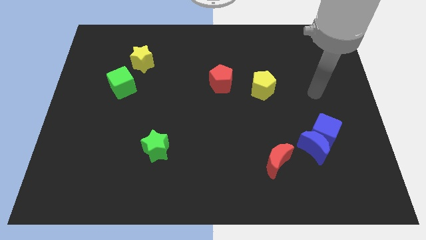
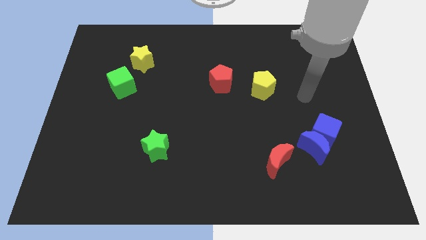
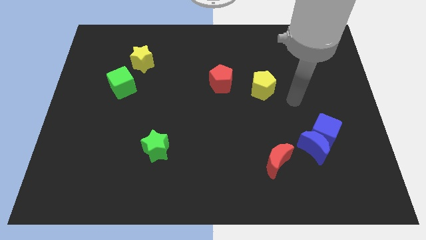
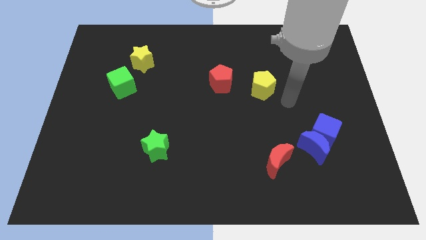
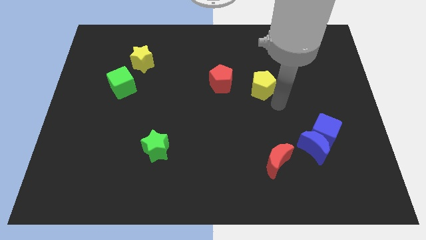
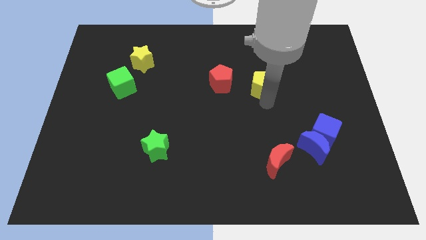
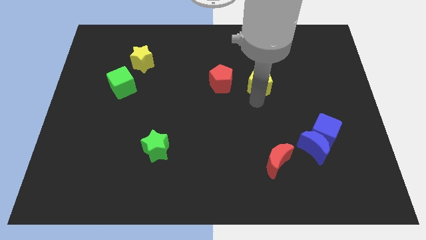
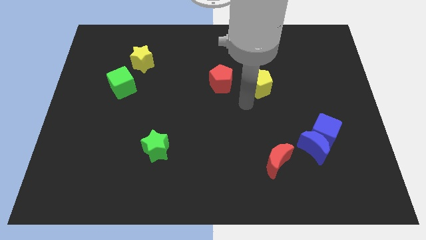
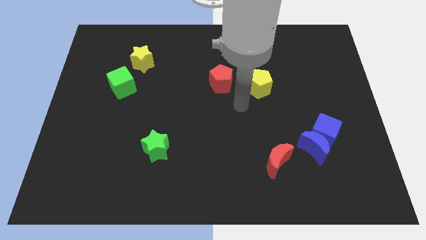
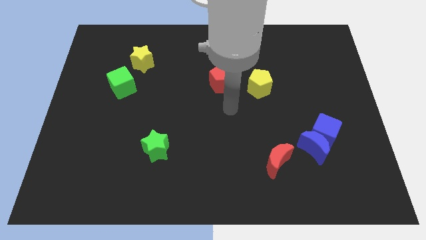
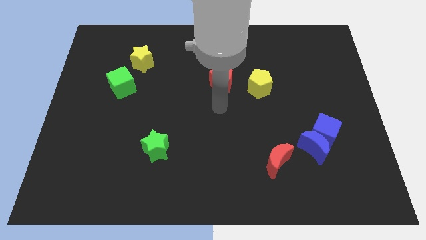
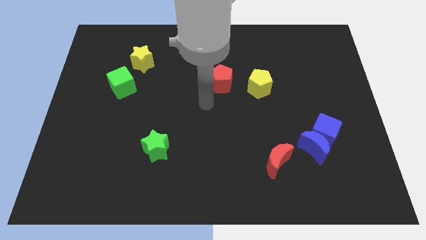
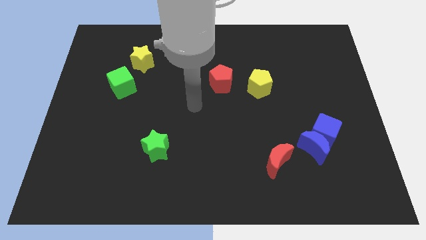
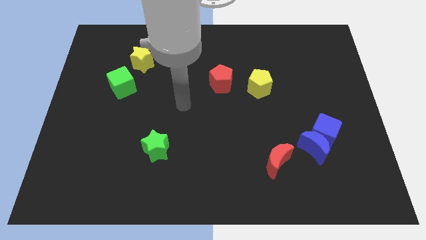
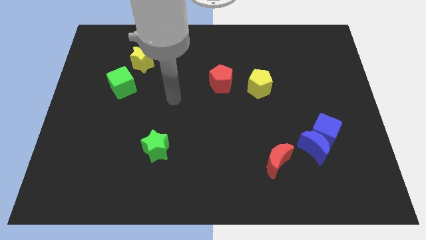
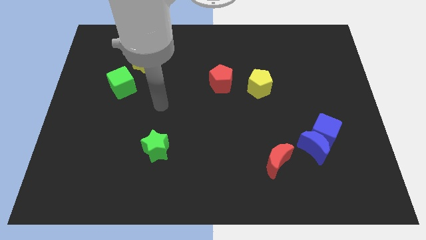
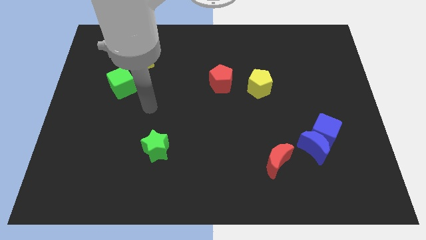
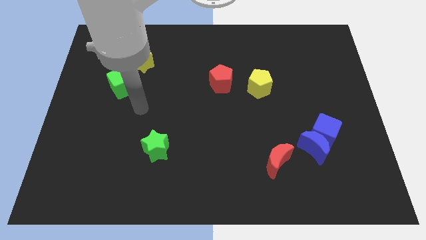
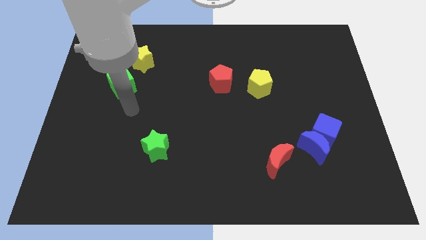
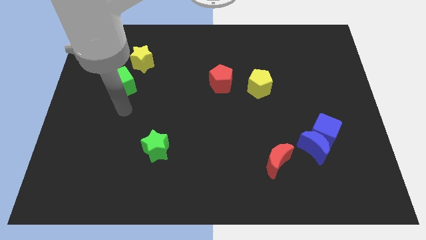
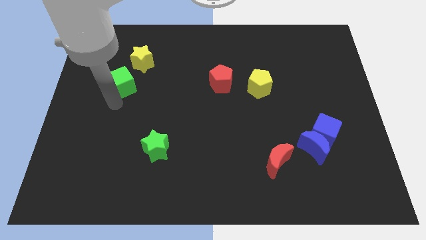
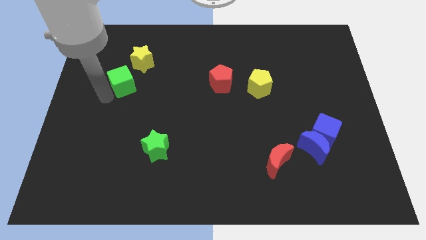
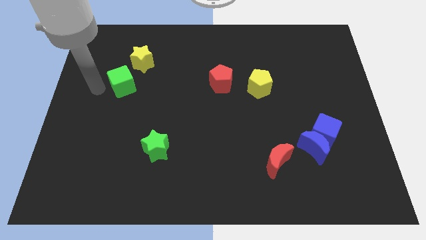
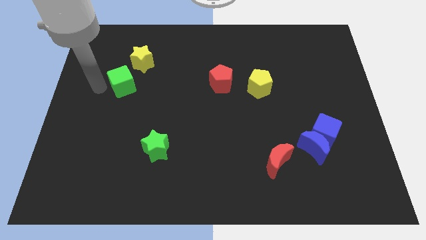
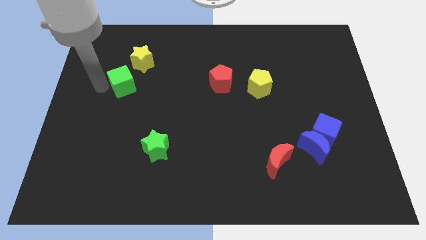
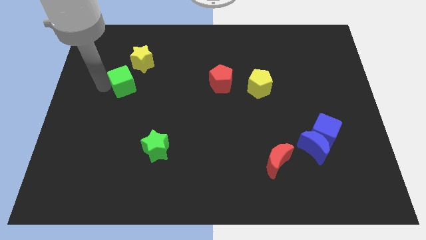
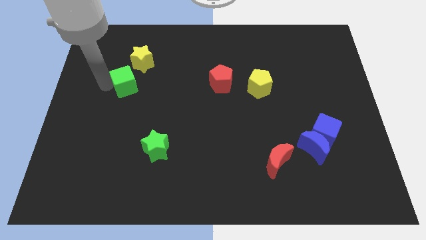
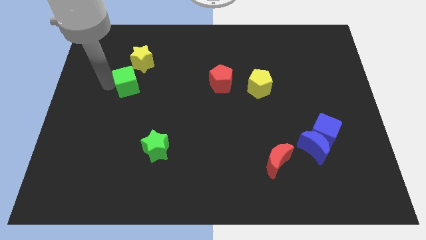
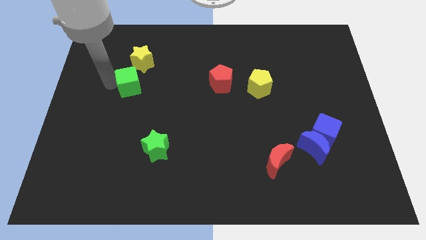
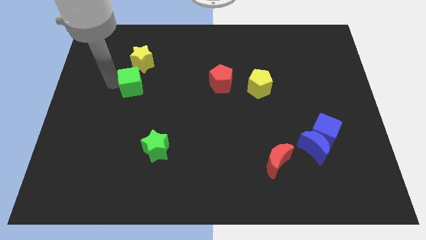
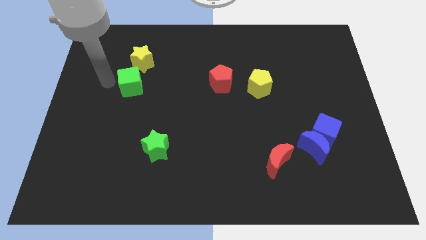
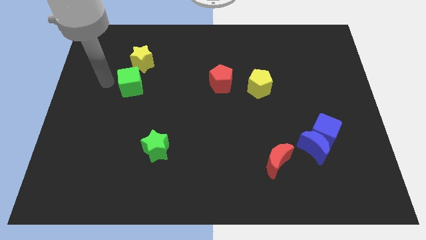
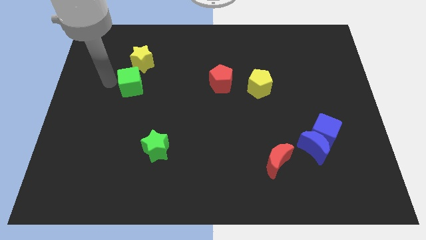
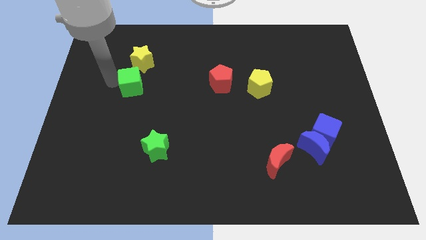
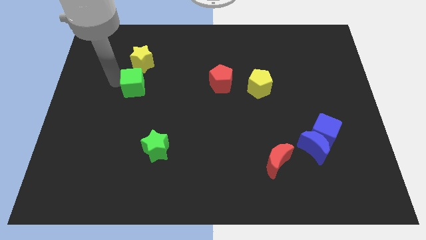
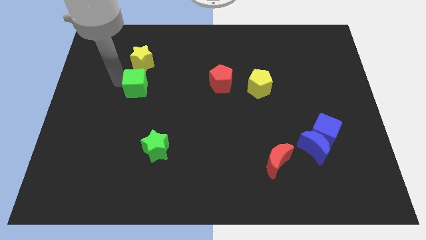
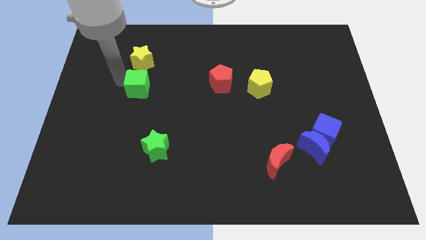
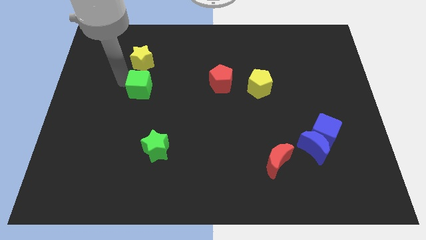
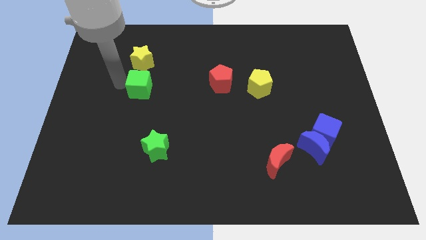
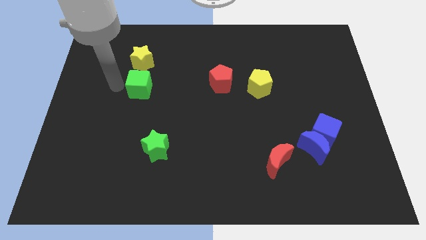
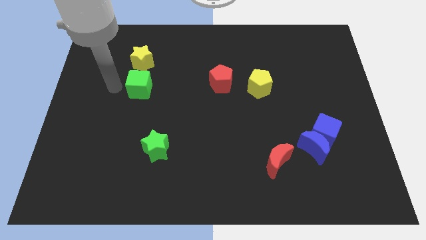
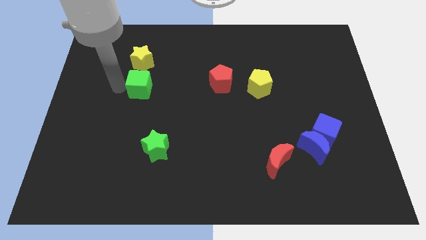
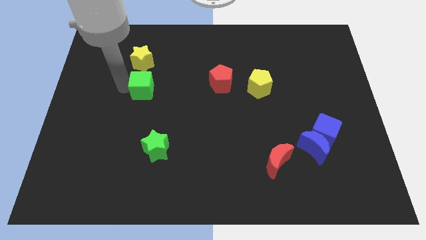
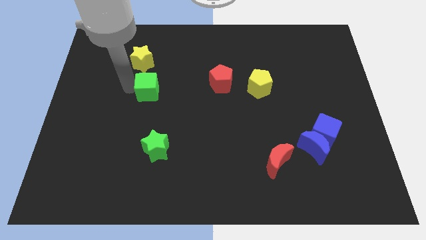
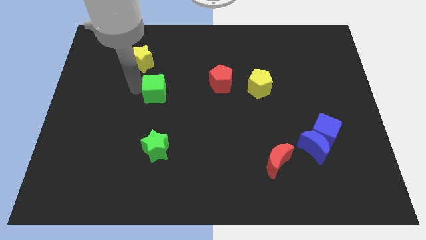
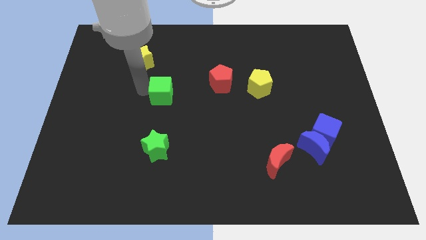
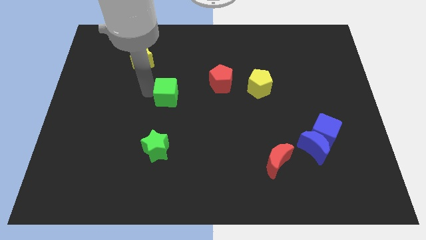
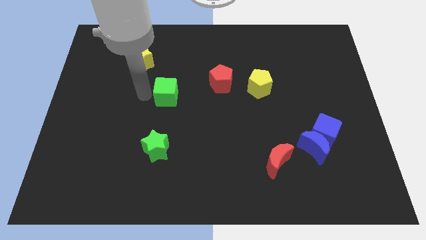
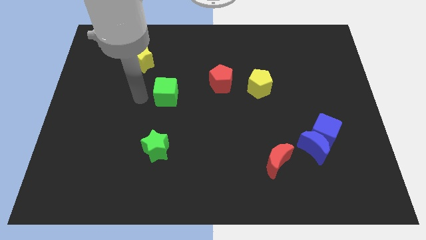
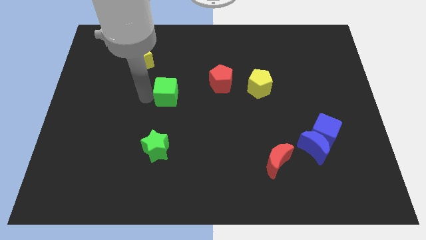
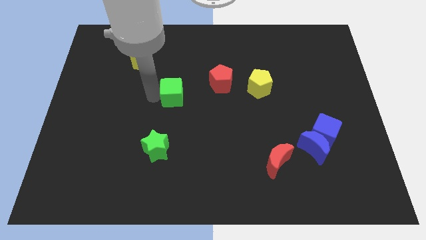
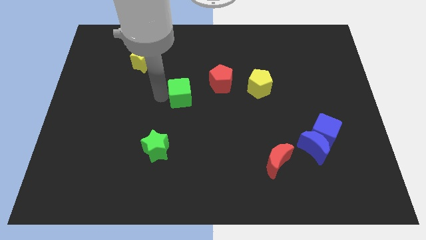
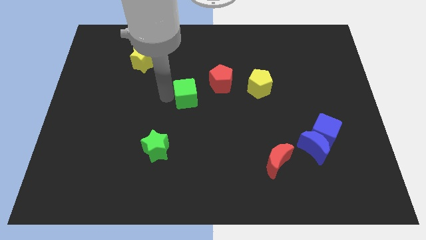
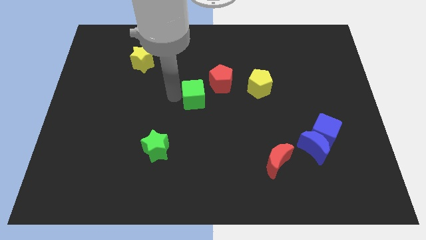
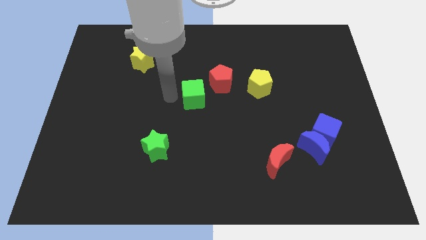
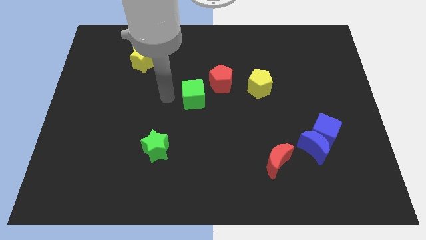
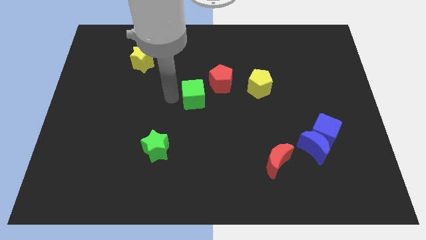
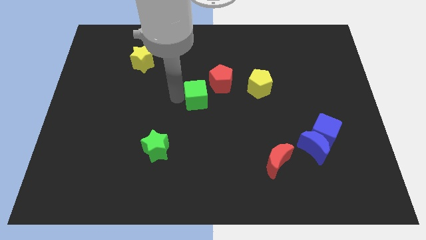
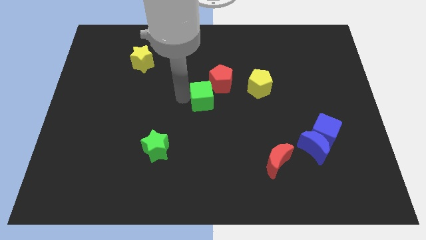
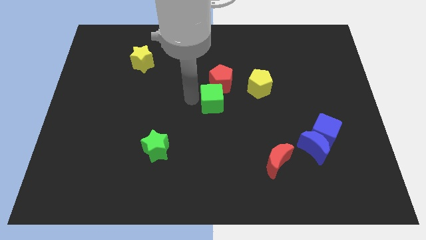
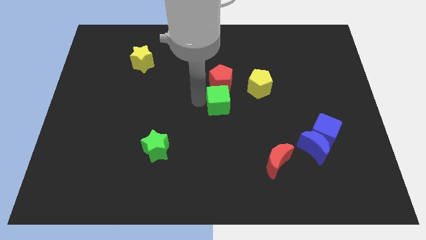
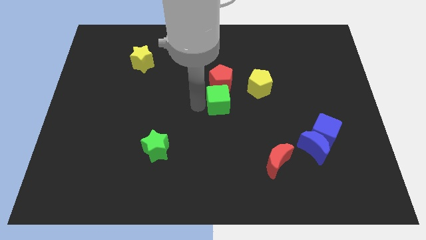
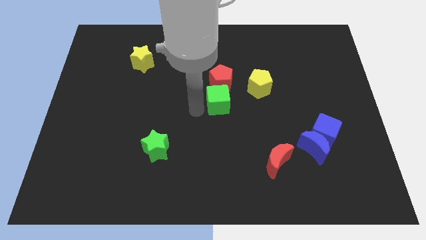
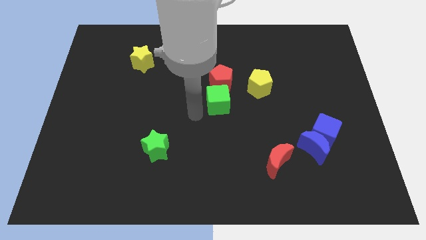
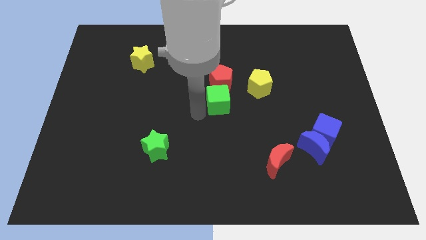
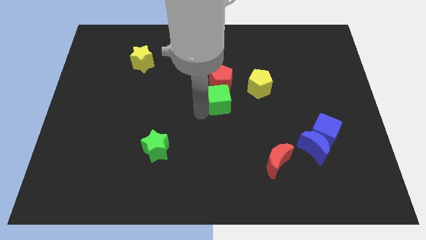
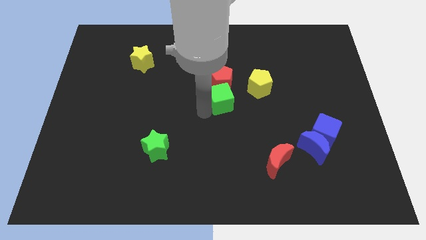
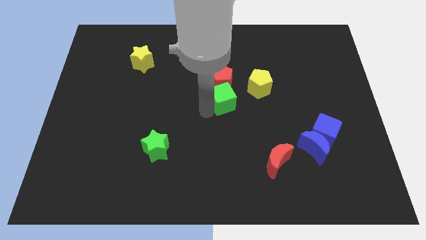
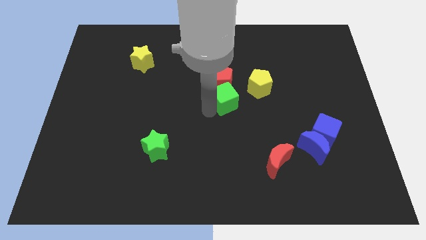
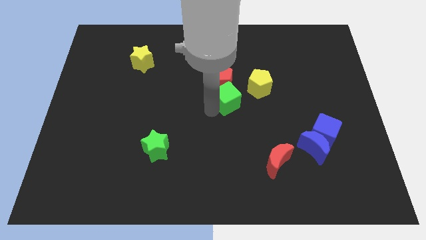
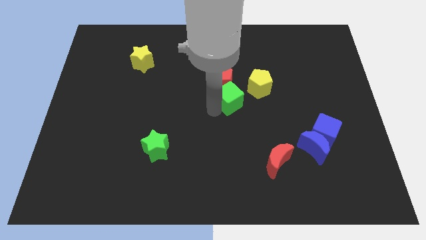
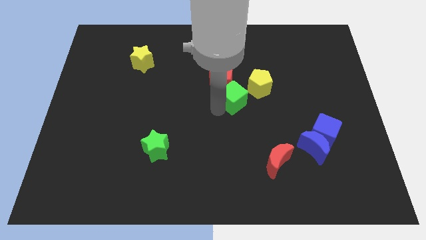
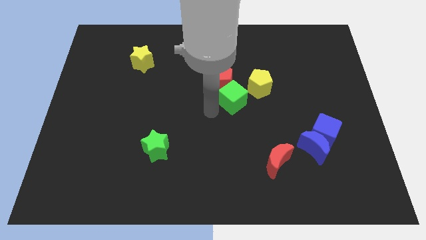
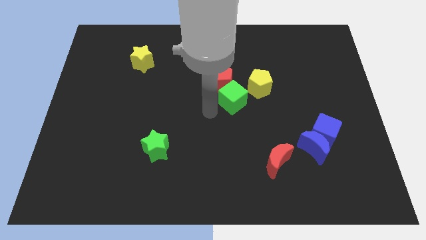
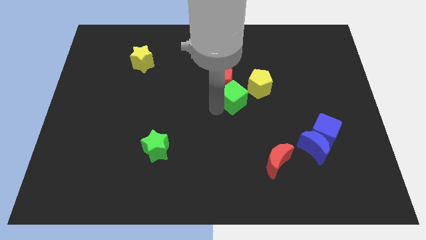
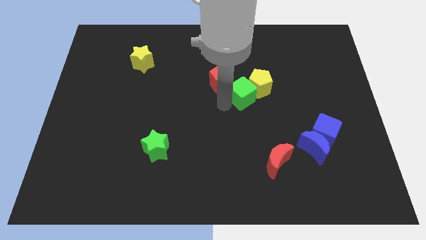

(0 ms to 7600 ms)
put the green cube to the yellow pentagon

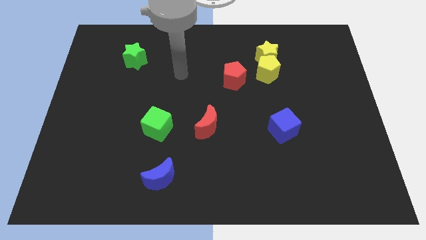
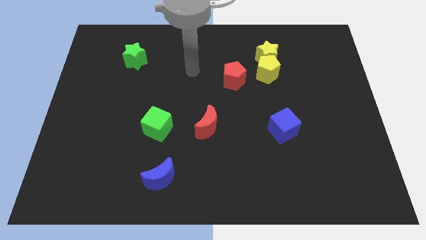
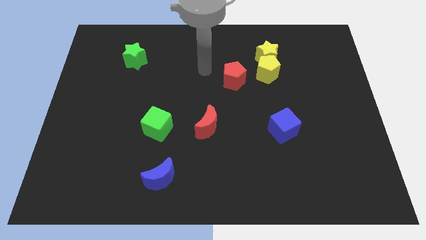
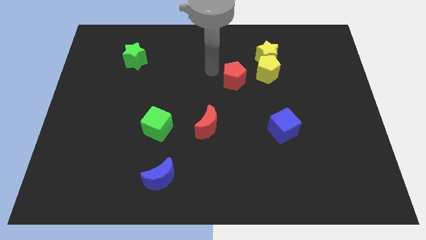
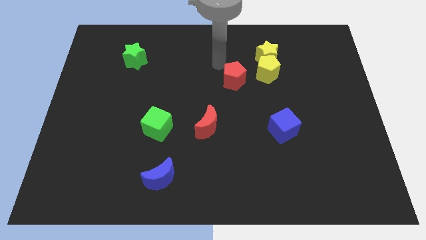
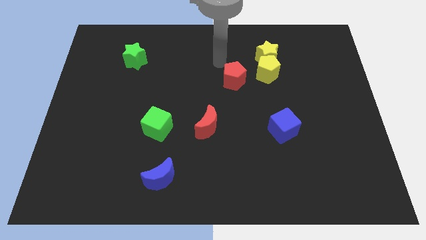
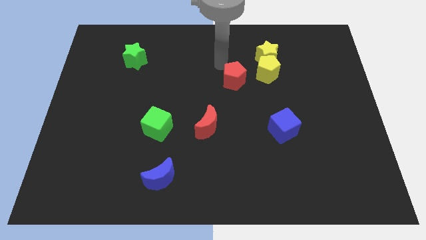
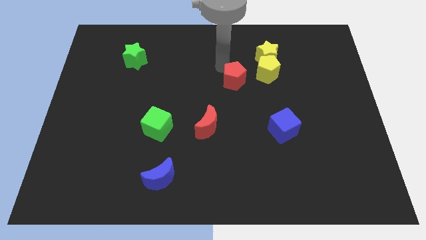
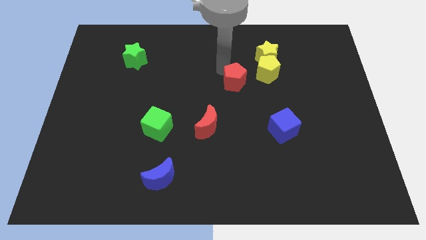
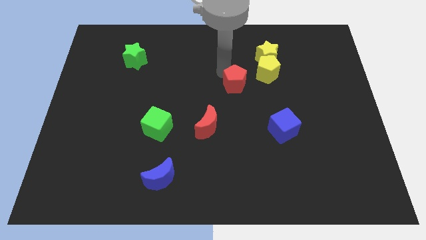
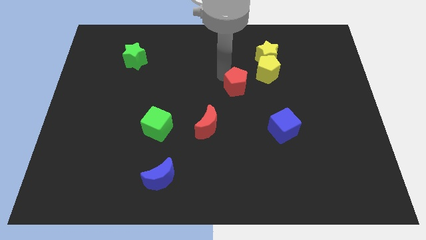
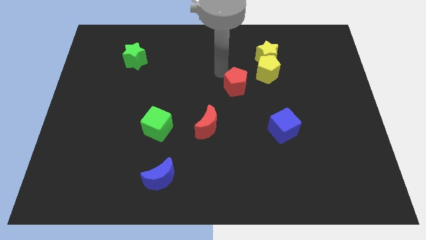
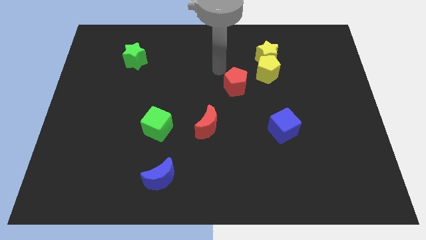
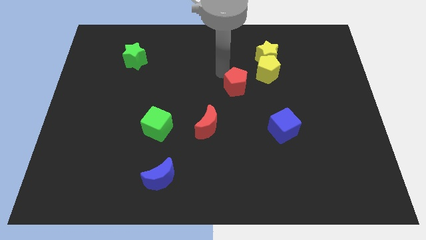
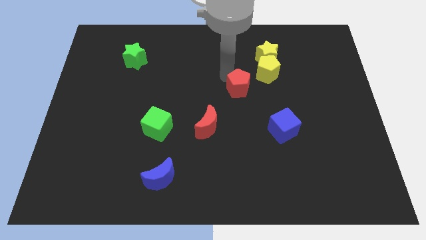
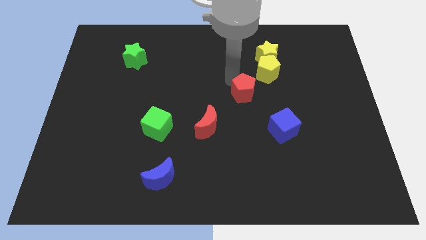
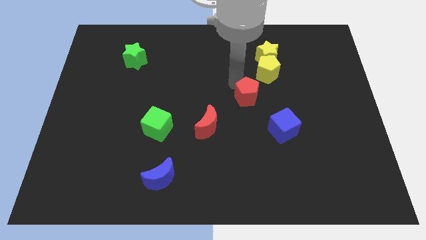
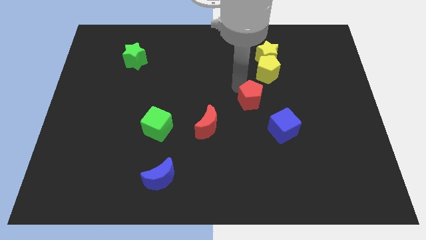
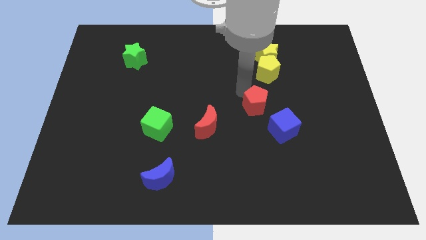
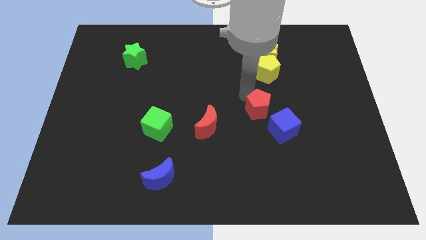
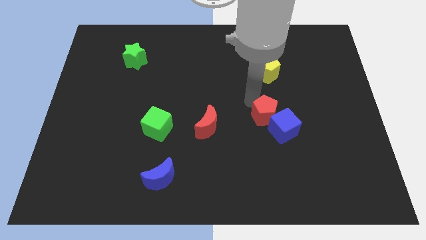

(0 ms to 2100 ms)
move the red pentagon close to the blue cube
